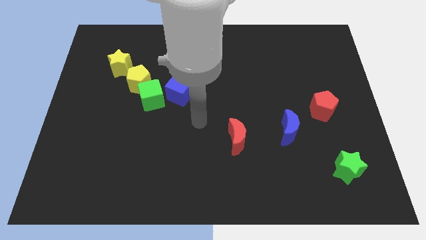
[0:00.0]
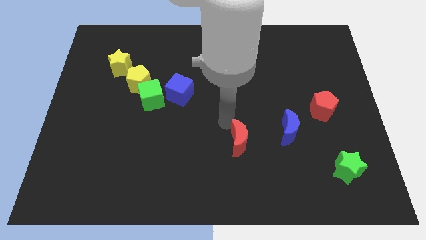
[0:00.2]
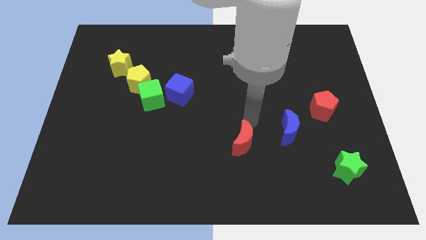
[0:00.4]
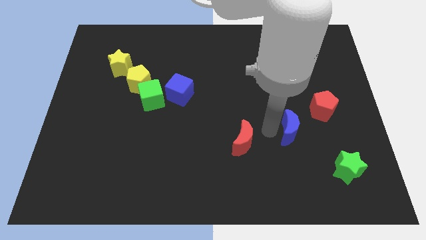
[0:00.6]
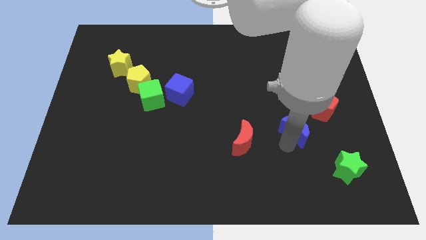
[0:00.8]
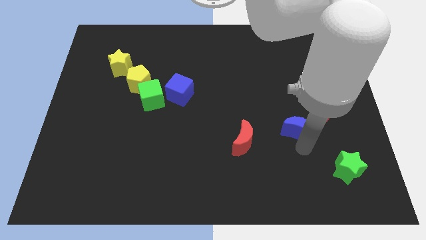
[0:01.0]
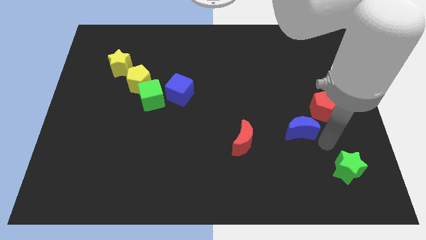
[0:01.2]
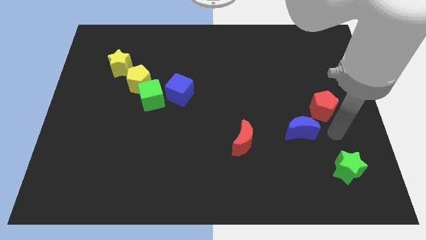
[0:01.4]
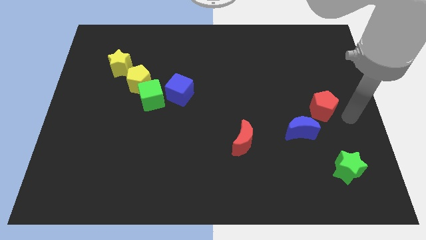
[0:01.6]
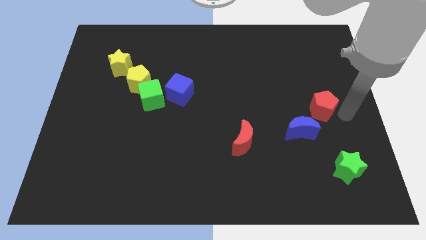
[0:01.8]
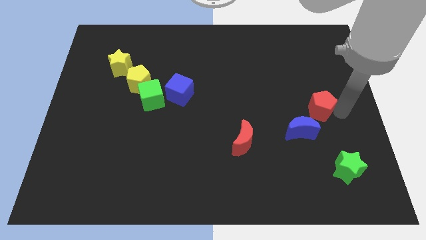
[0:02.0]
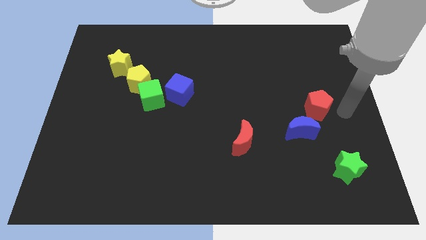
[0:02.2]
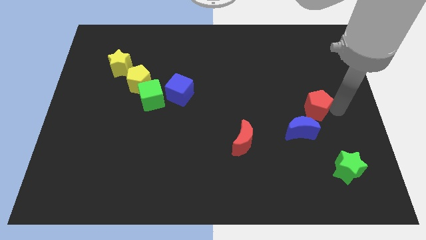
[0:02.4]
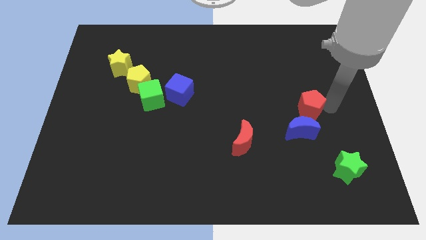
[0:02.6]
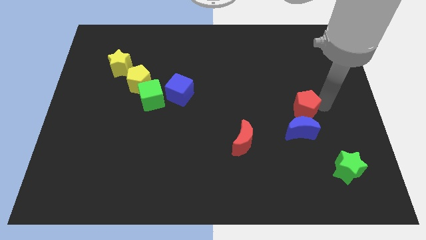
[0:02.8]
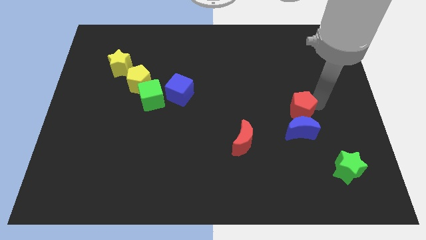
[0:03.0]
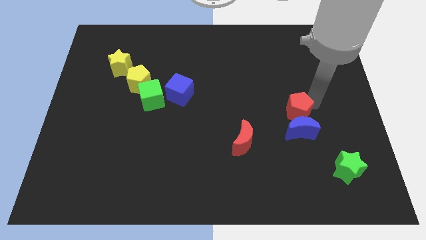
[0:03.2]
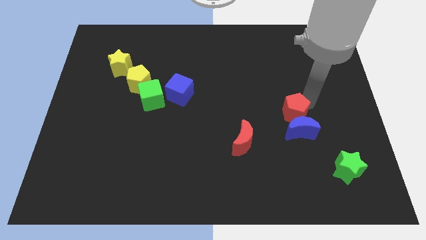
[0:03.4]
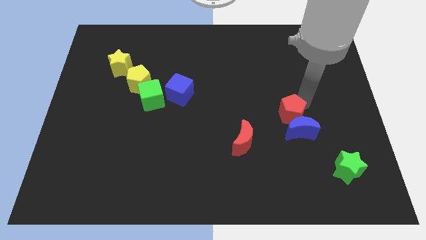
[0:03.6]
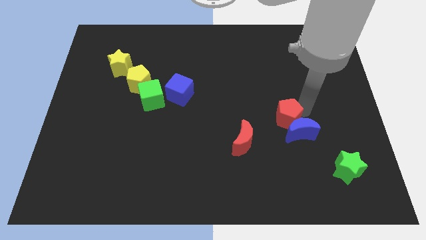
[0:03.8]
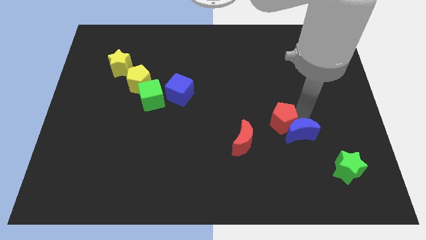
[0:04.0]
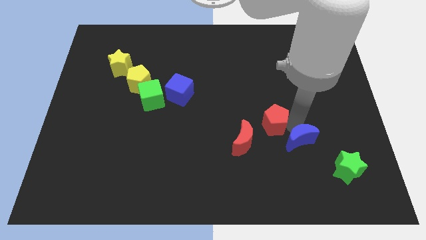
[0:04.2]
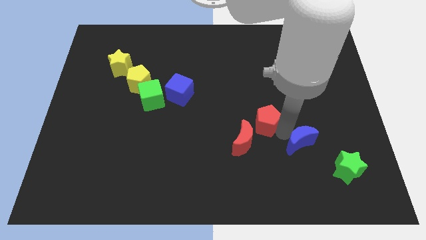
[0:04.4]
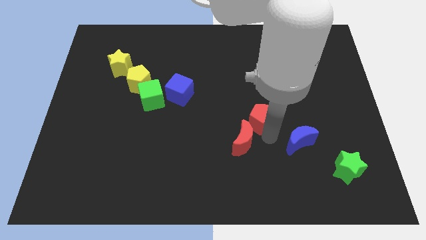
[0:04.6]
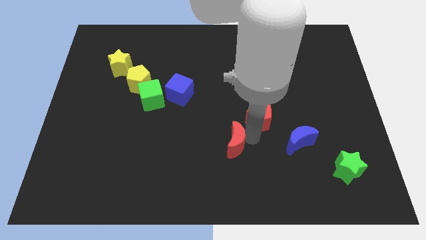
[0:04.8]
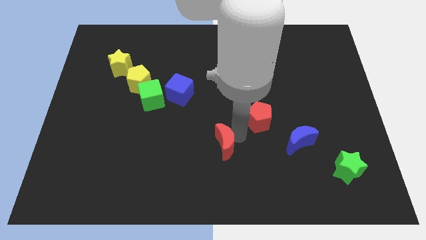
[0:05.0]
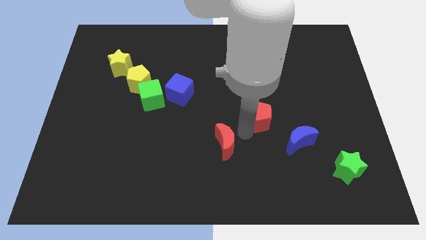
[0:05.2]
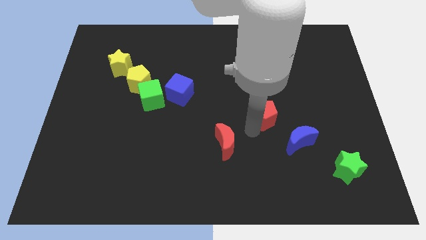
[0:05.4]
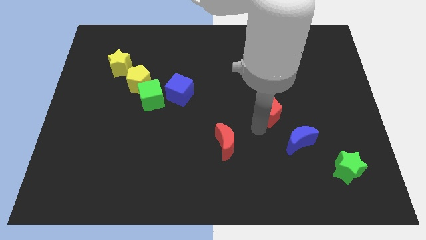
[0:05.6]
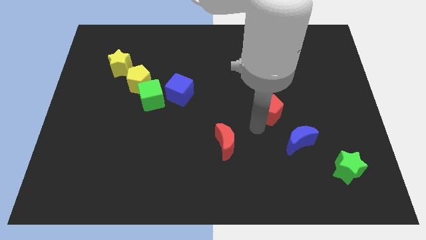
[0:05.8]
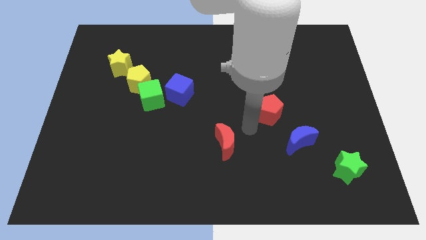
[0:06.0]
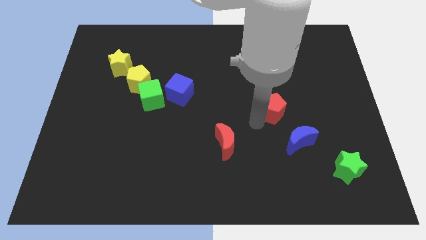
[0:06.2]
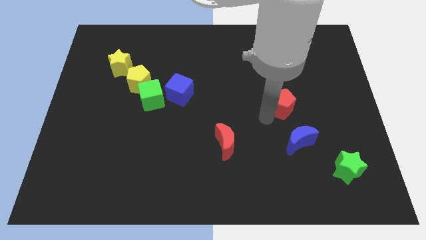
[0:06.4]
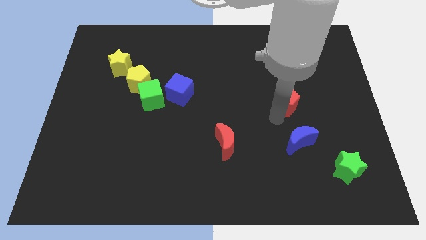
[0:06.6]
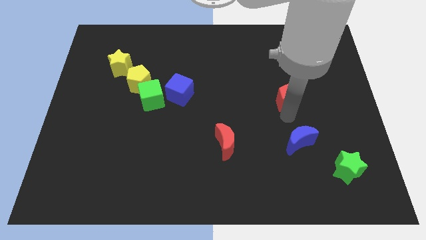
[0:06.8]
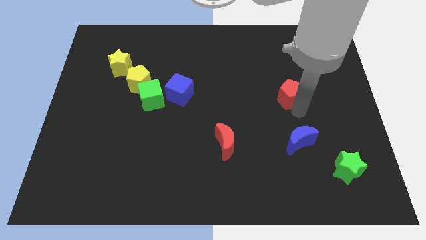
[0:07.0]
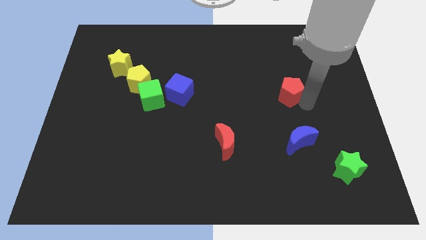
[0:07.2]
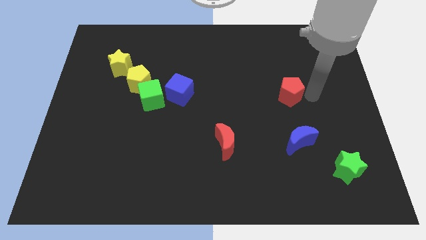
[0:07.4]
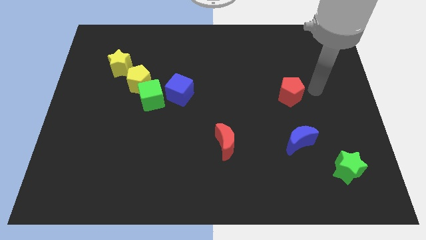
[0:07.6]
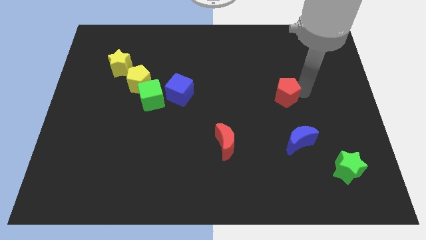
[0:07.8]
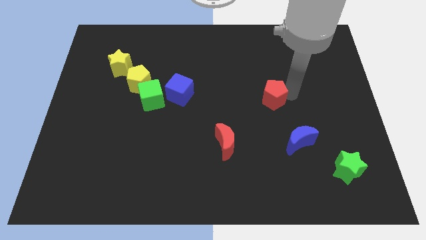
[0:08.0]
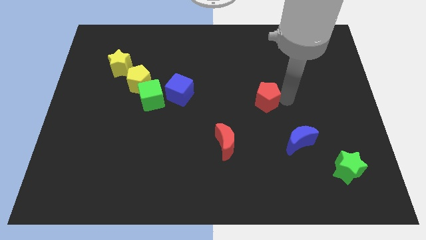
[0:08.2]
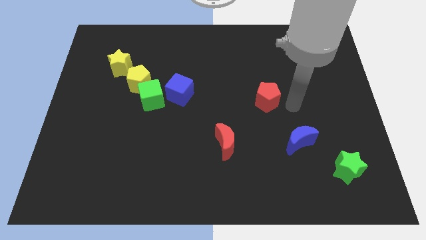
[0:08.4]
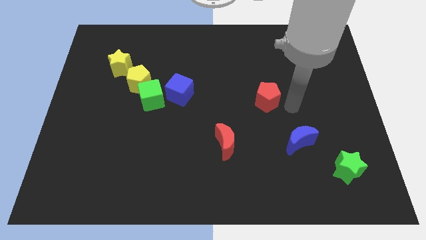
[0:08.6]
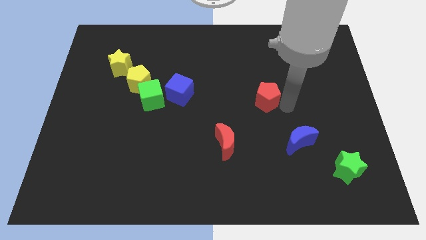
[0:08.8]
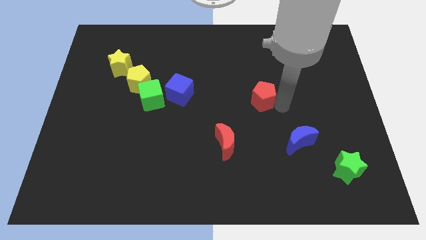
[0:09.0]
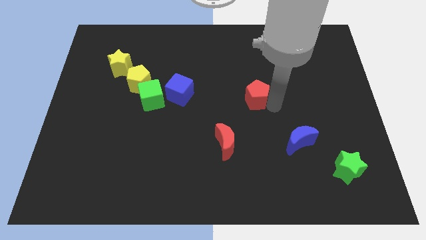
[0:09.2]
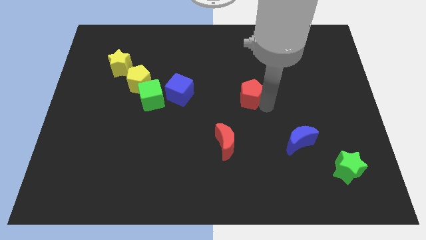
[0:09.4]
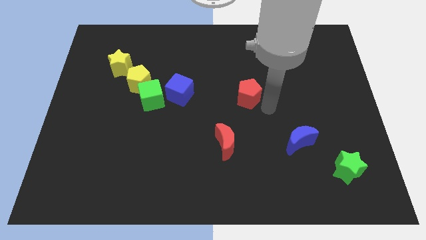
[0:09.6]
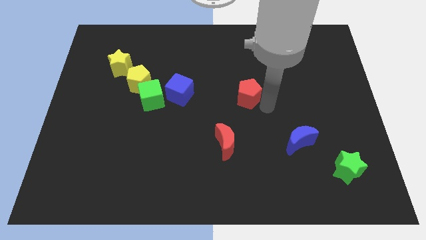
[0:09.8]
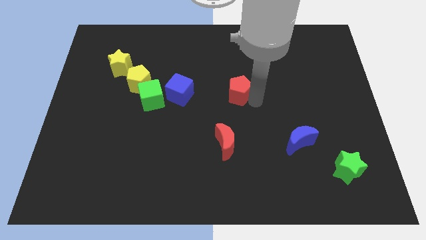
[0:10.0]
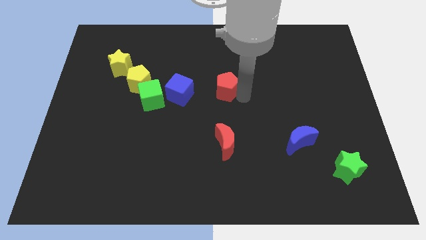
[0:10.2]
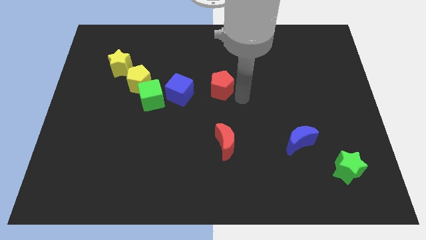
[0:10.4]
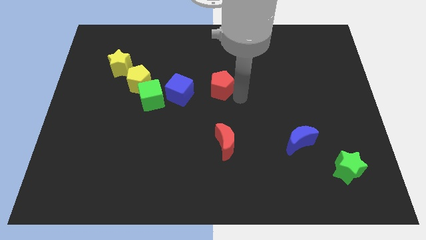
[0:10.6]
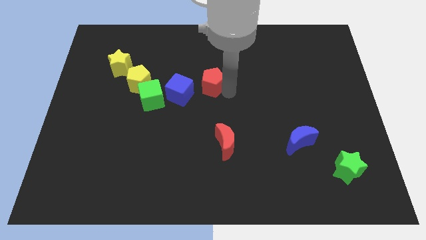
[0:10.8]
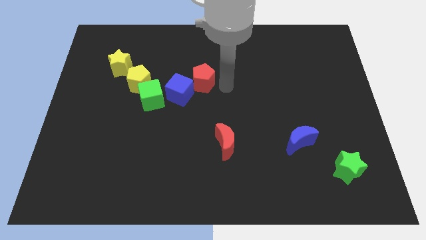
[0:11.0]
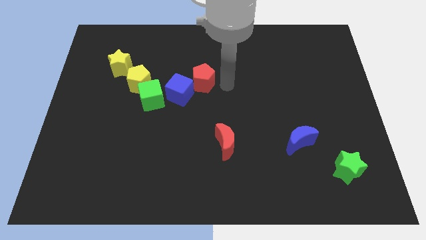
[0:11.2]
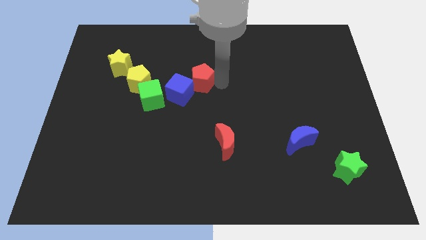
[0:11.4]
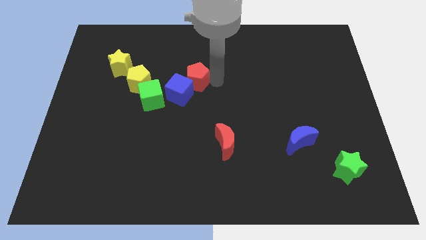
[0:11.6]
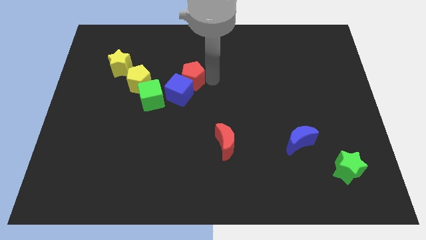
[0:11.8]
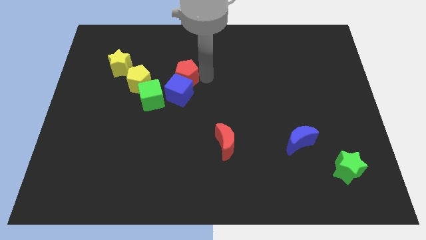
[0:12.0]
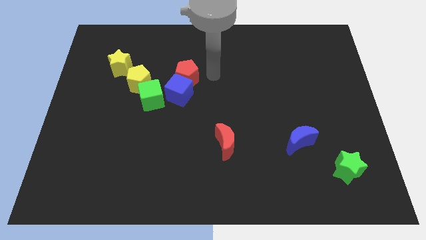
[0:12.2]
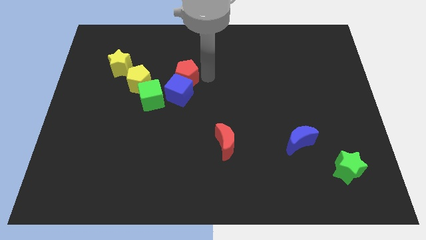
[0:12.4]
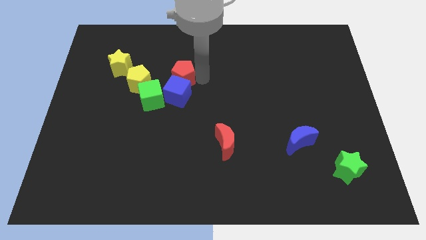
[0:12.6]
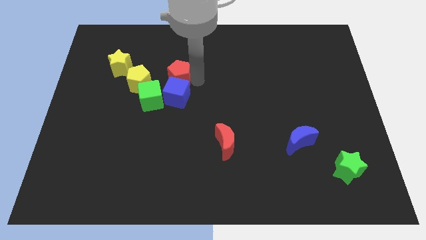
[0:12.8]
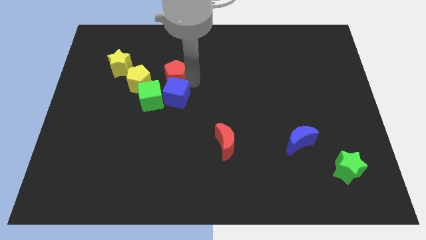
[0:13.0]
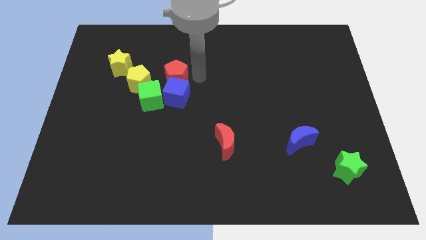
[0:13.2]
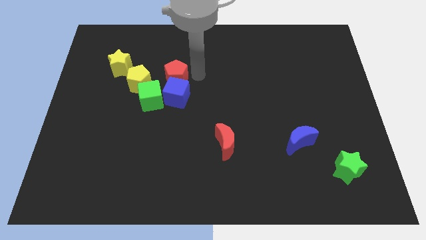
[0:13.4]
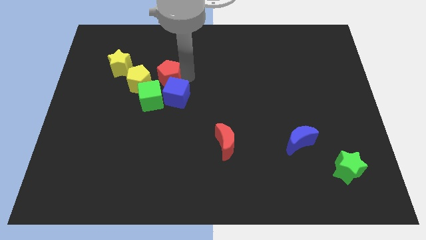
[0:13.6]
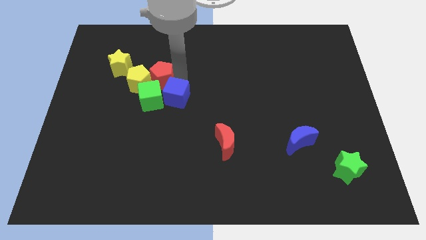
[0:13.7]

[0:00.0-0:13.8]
move the red pentagon towards the yellow pentagon
